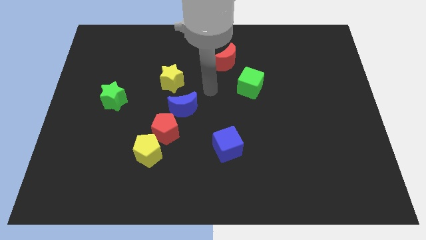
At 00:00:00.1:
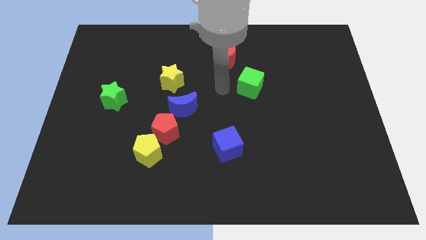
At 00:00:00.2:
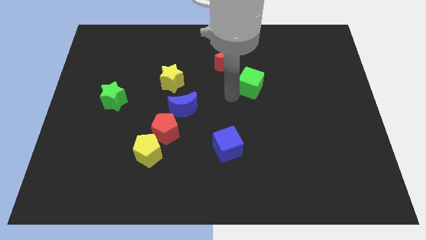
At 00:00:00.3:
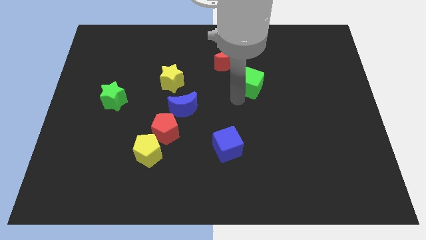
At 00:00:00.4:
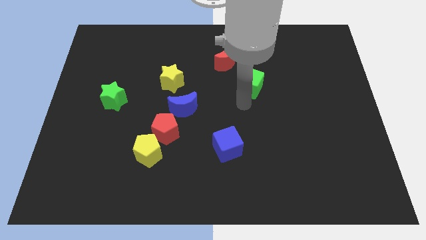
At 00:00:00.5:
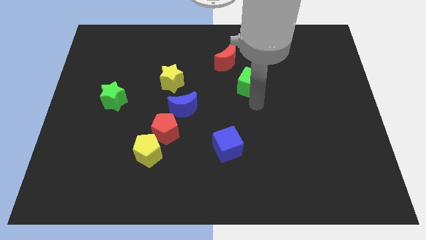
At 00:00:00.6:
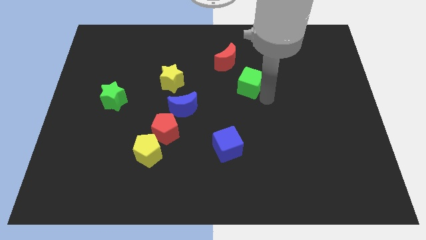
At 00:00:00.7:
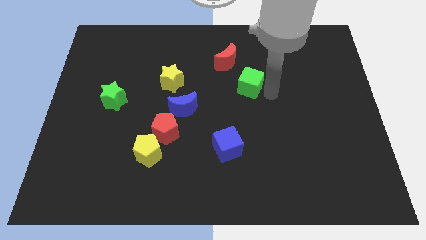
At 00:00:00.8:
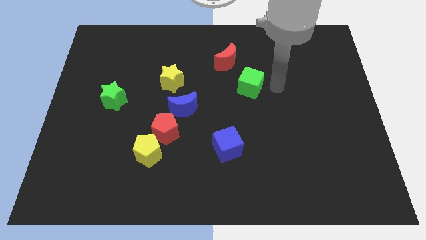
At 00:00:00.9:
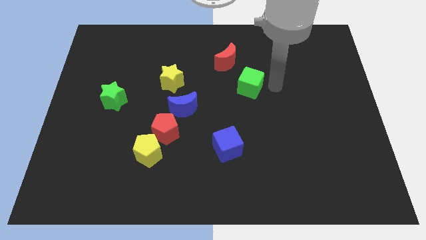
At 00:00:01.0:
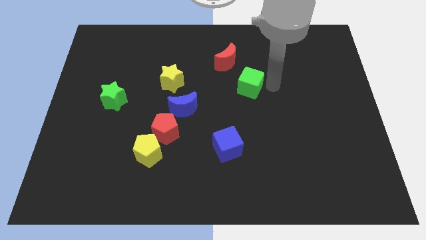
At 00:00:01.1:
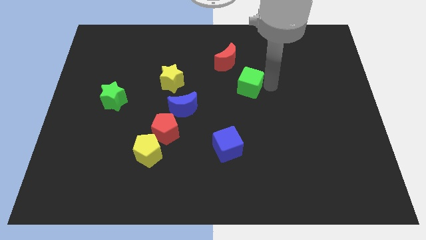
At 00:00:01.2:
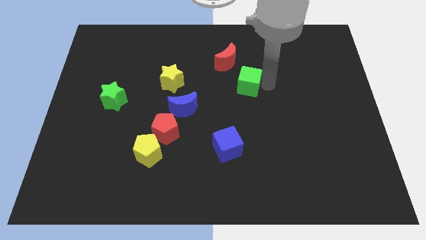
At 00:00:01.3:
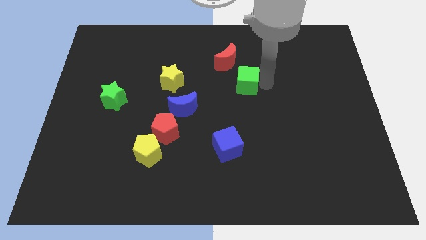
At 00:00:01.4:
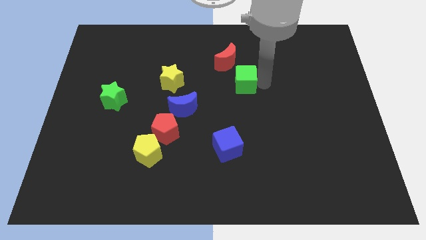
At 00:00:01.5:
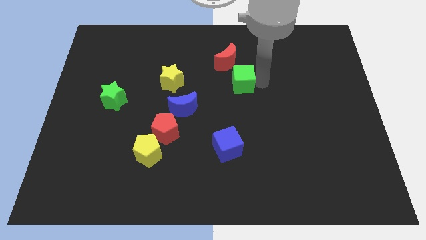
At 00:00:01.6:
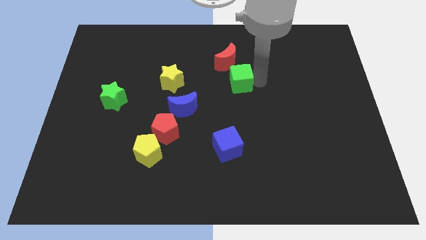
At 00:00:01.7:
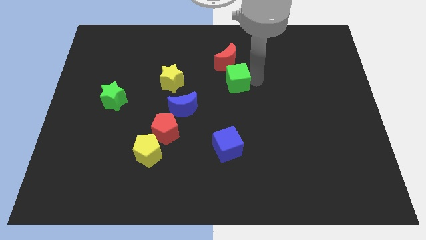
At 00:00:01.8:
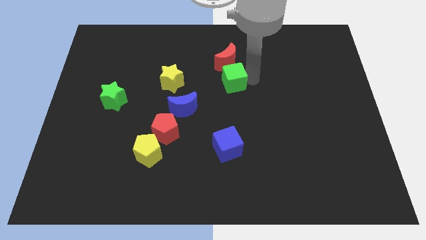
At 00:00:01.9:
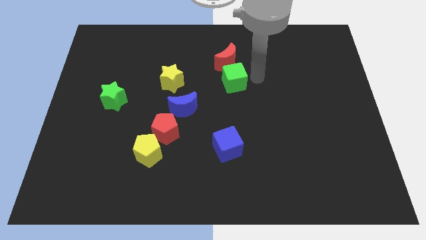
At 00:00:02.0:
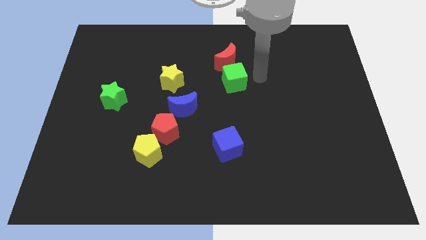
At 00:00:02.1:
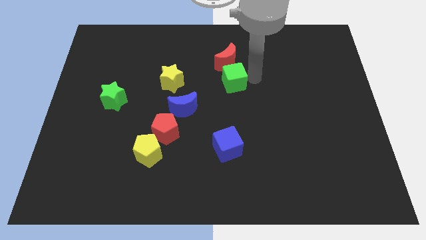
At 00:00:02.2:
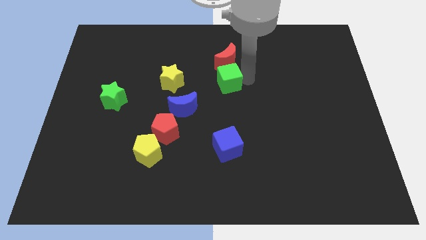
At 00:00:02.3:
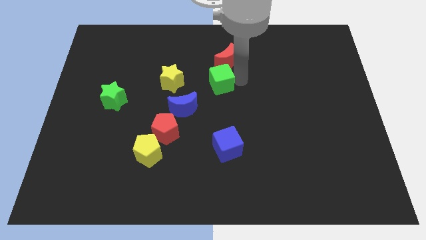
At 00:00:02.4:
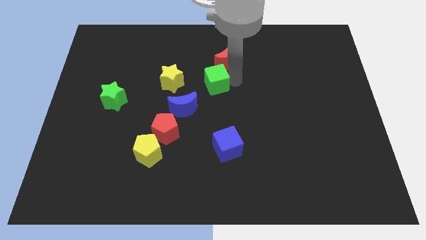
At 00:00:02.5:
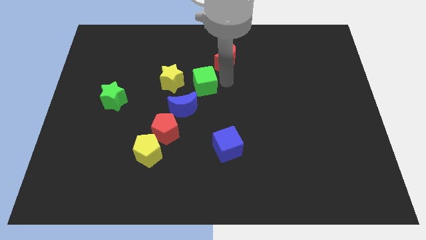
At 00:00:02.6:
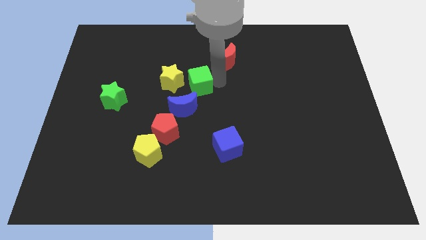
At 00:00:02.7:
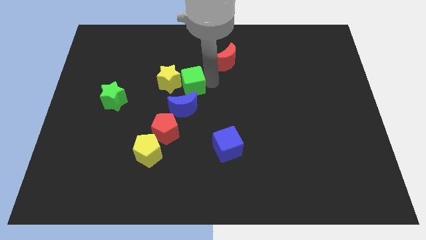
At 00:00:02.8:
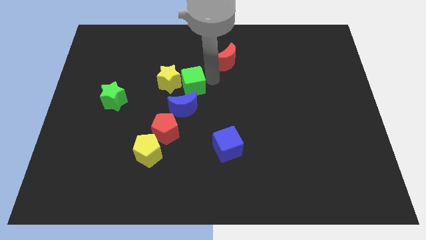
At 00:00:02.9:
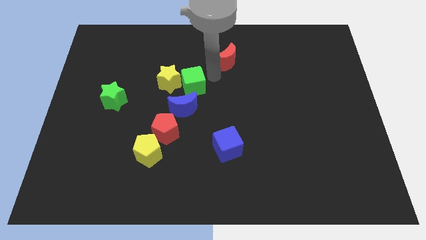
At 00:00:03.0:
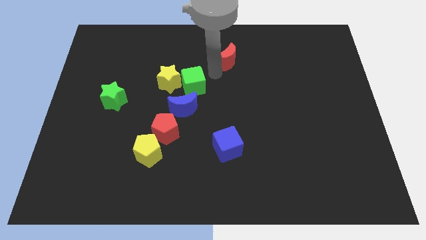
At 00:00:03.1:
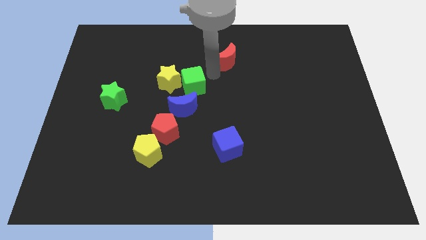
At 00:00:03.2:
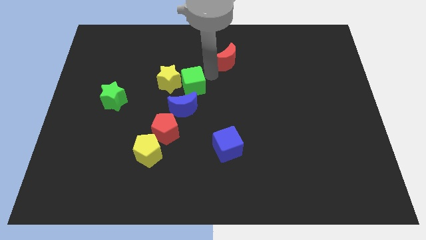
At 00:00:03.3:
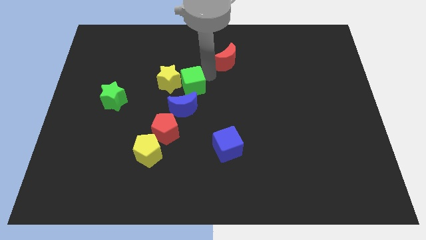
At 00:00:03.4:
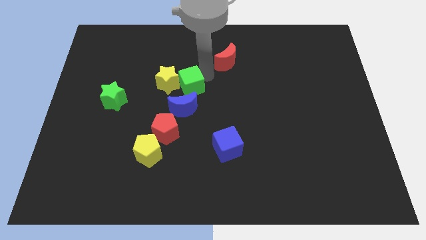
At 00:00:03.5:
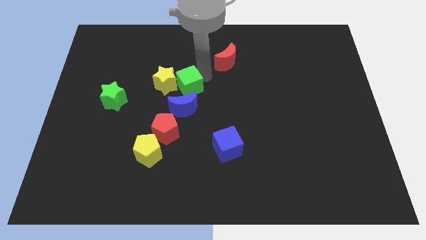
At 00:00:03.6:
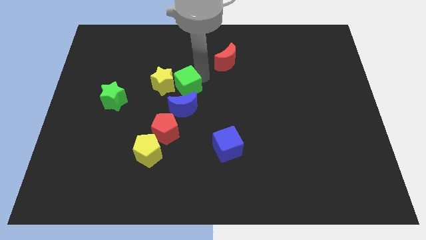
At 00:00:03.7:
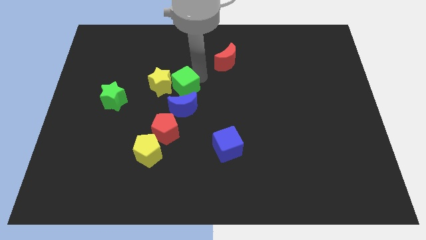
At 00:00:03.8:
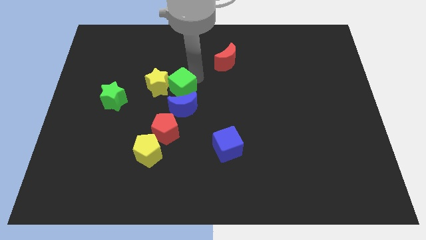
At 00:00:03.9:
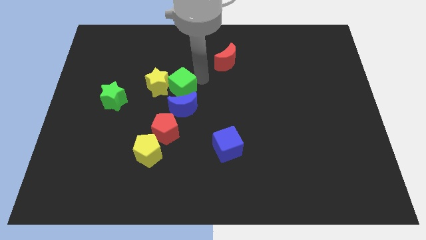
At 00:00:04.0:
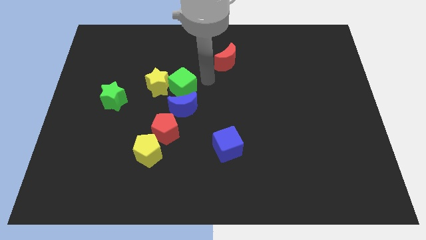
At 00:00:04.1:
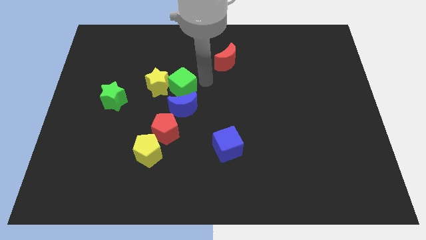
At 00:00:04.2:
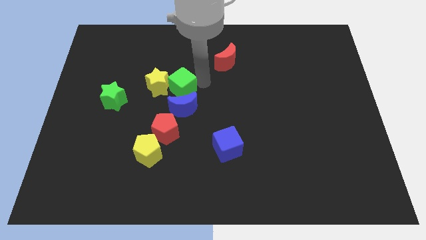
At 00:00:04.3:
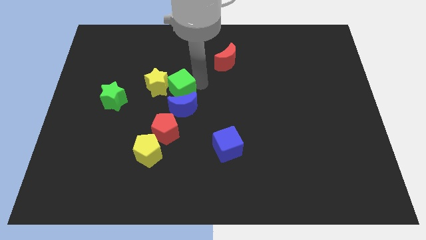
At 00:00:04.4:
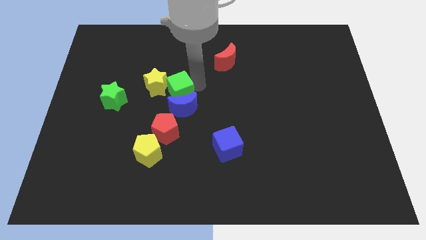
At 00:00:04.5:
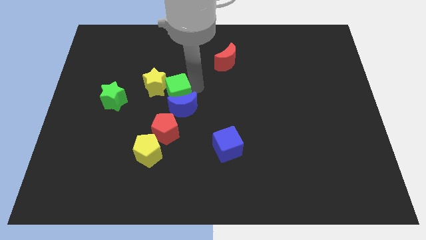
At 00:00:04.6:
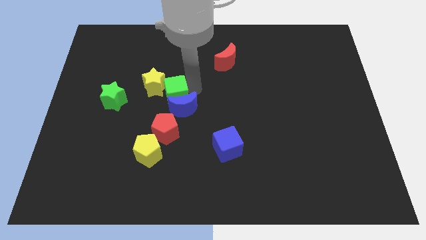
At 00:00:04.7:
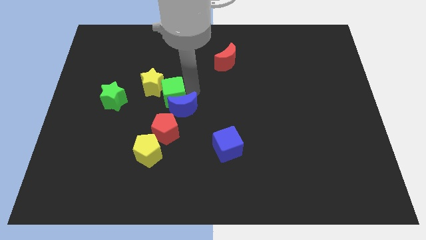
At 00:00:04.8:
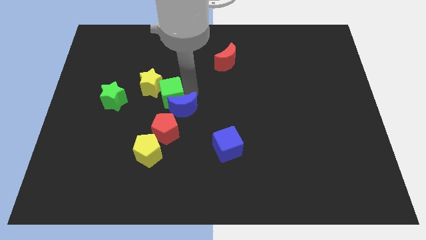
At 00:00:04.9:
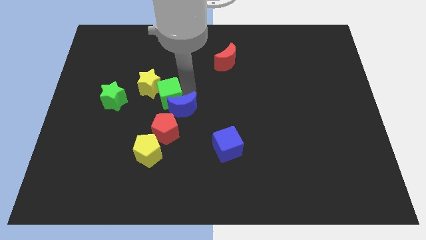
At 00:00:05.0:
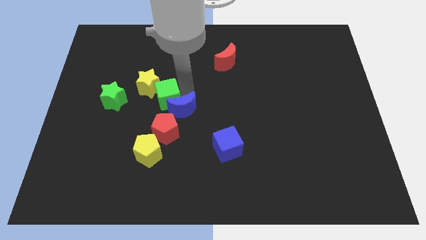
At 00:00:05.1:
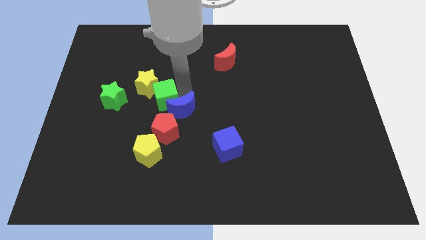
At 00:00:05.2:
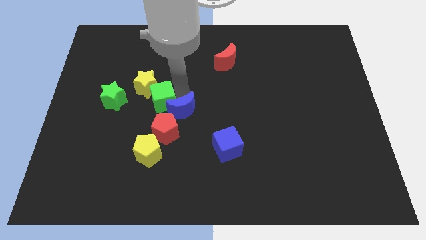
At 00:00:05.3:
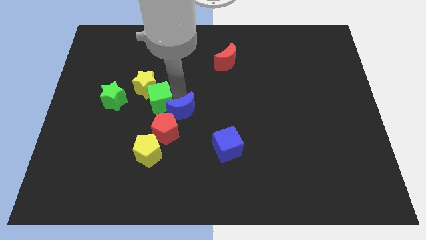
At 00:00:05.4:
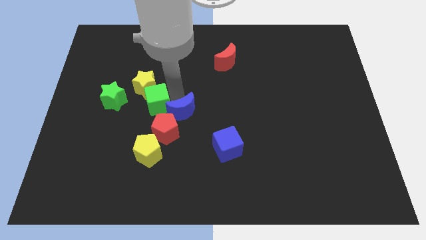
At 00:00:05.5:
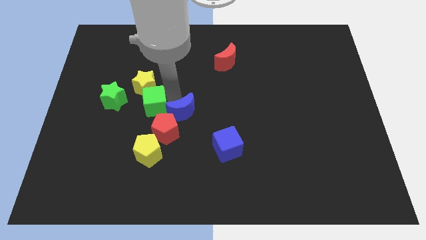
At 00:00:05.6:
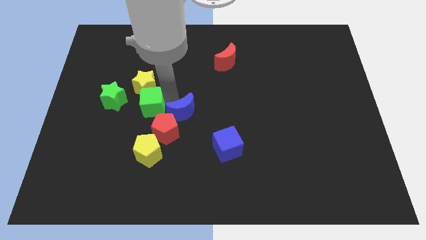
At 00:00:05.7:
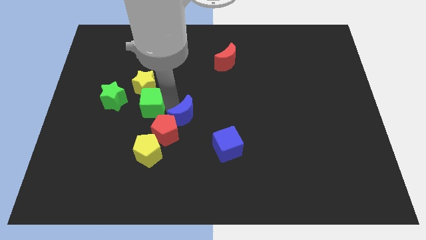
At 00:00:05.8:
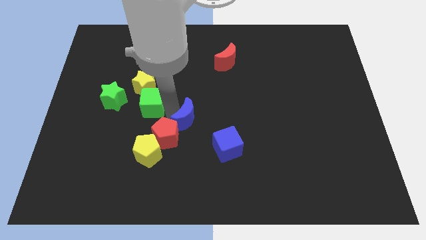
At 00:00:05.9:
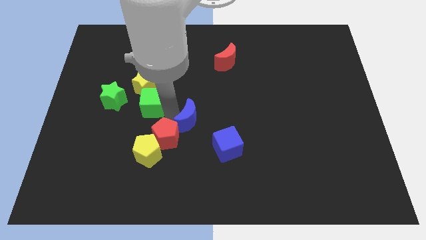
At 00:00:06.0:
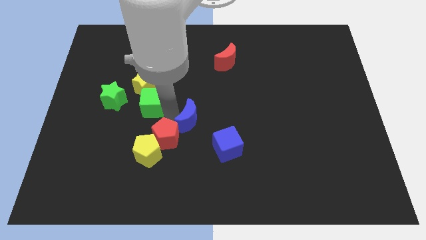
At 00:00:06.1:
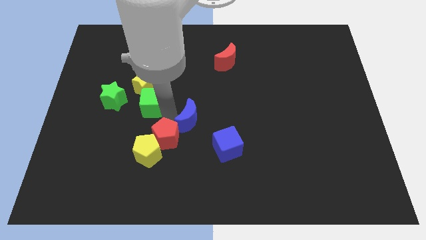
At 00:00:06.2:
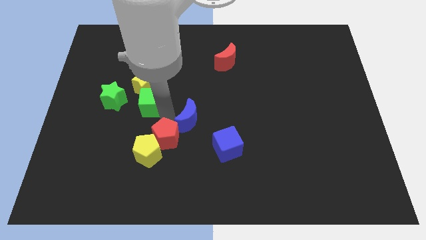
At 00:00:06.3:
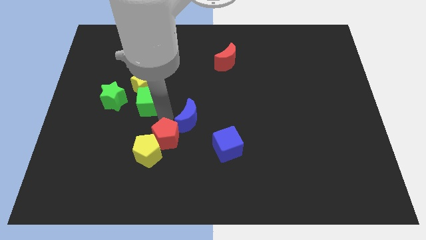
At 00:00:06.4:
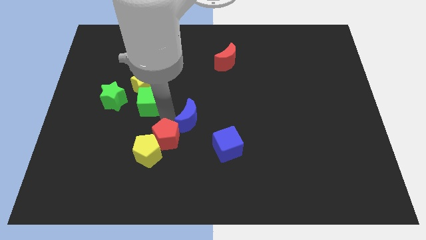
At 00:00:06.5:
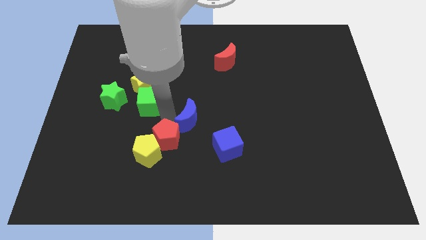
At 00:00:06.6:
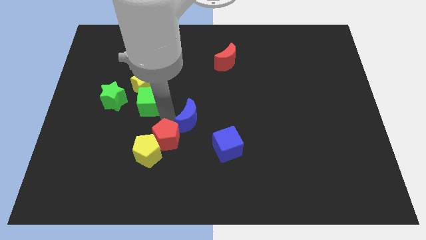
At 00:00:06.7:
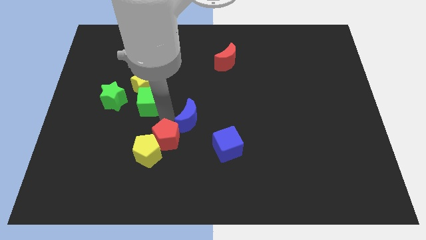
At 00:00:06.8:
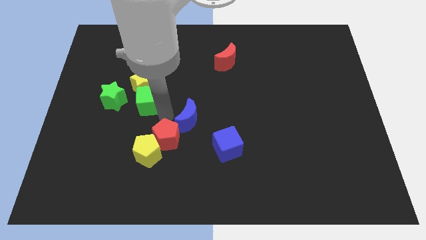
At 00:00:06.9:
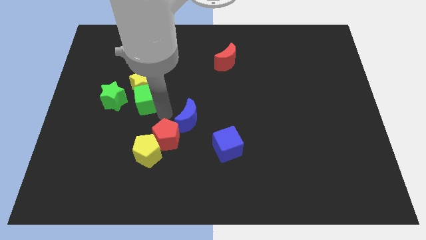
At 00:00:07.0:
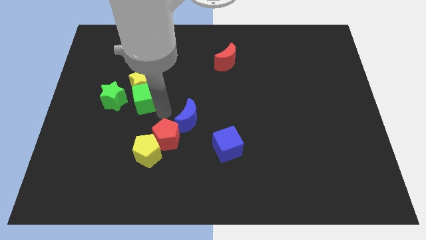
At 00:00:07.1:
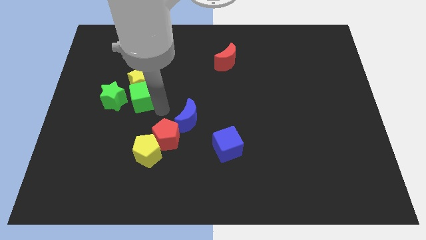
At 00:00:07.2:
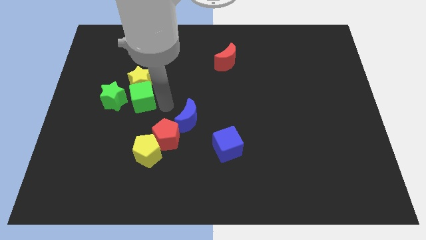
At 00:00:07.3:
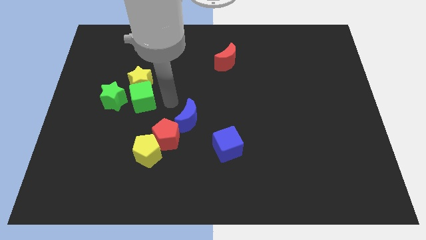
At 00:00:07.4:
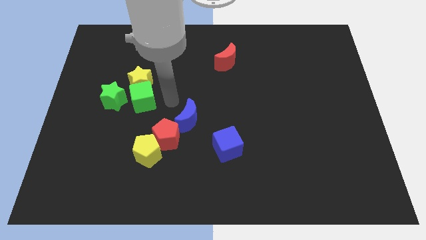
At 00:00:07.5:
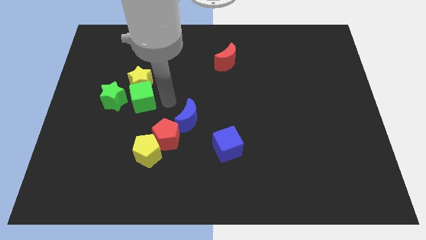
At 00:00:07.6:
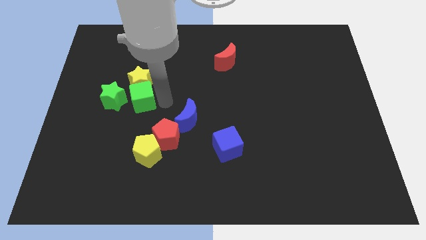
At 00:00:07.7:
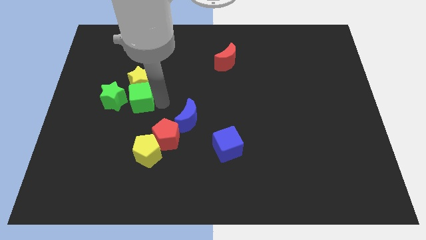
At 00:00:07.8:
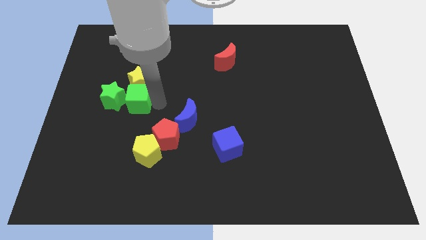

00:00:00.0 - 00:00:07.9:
put the green cube to the green star

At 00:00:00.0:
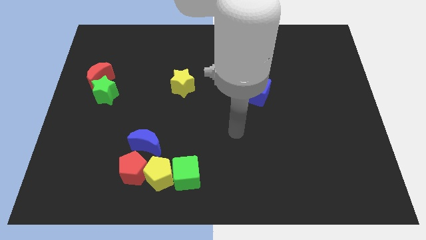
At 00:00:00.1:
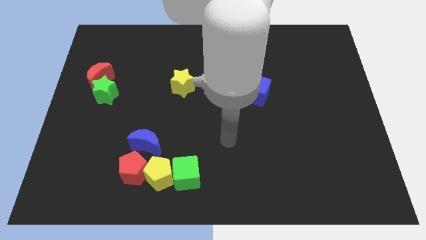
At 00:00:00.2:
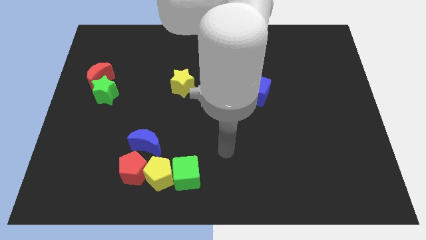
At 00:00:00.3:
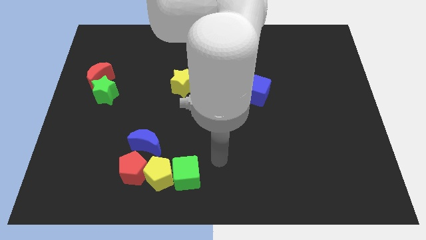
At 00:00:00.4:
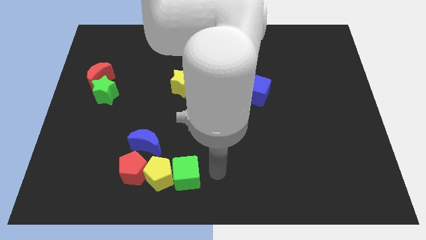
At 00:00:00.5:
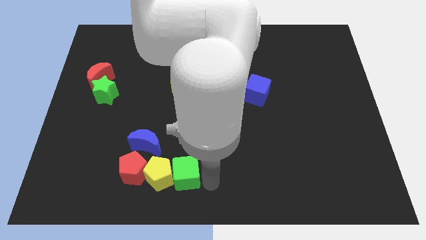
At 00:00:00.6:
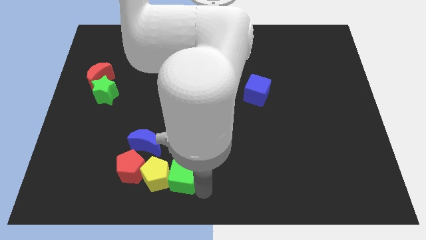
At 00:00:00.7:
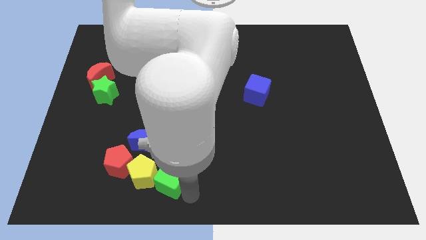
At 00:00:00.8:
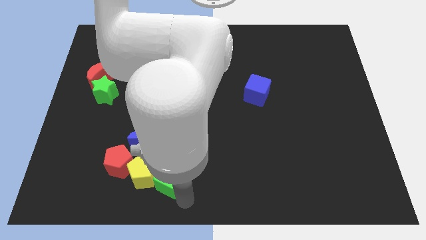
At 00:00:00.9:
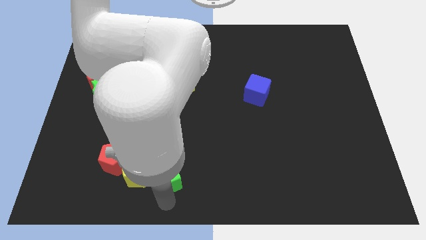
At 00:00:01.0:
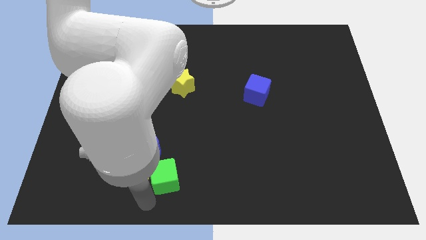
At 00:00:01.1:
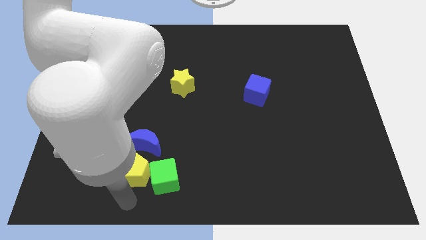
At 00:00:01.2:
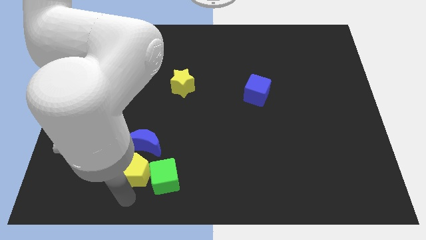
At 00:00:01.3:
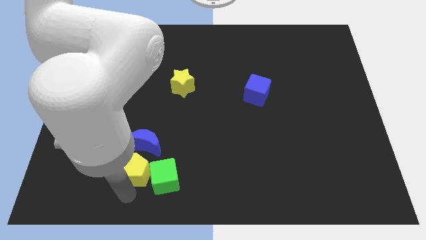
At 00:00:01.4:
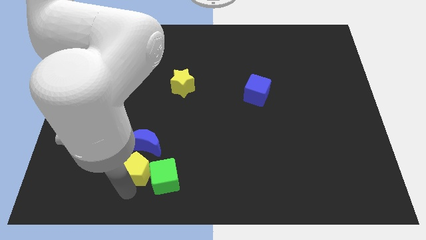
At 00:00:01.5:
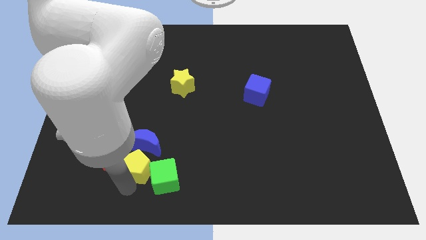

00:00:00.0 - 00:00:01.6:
move the yellow pentagon towards the blue moon
